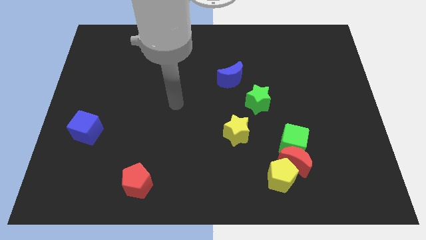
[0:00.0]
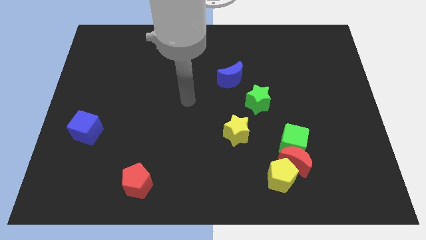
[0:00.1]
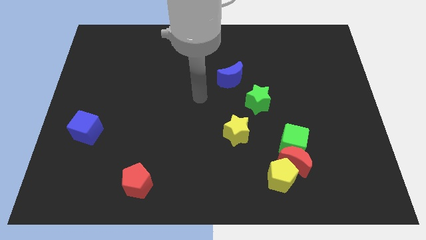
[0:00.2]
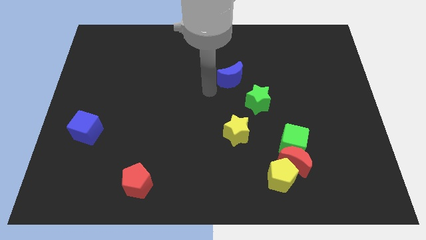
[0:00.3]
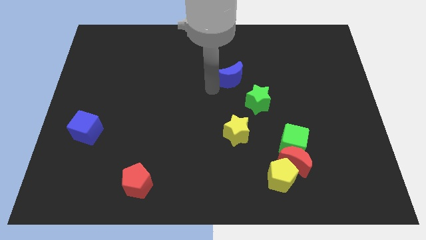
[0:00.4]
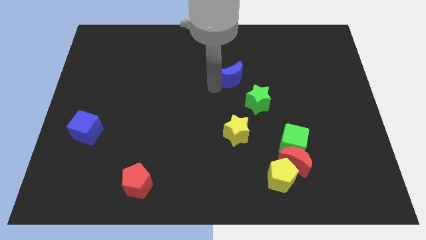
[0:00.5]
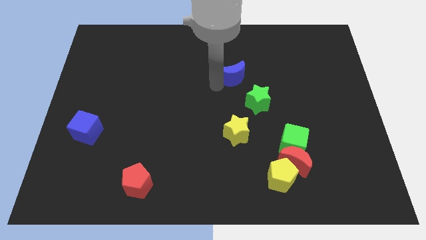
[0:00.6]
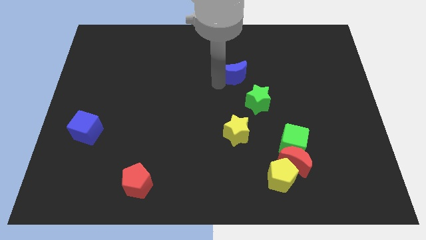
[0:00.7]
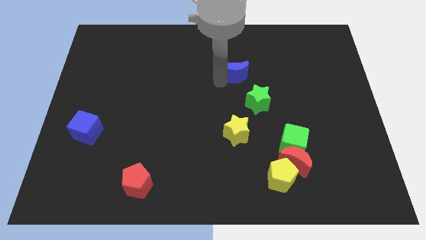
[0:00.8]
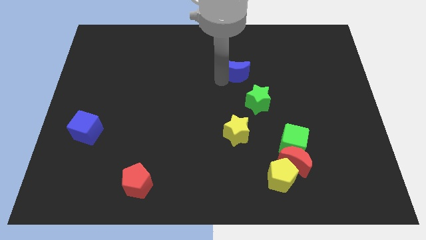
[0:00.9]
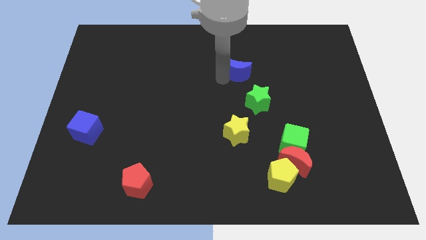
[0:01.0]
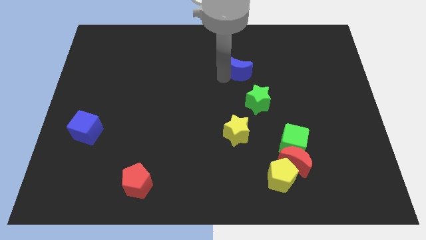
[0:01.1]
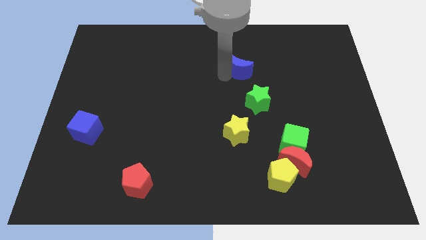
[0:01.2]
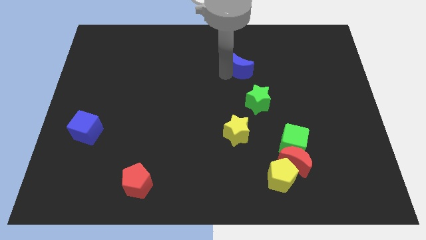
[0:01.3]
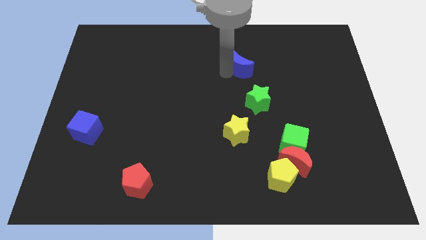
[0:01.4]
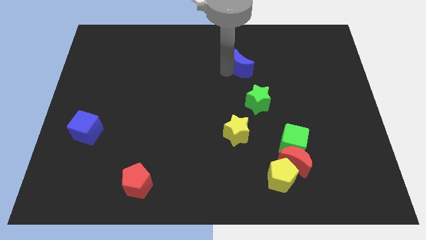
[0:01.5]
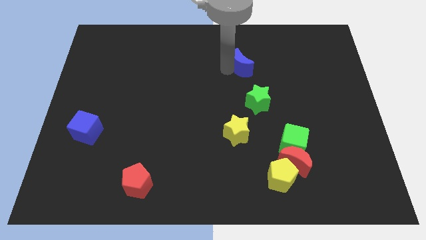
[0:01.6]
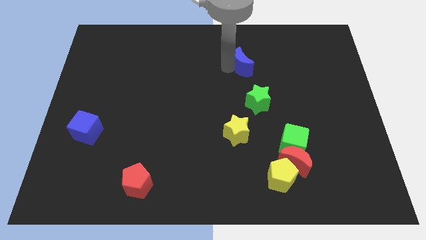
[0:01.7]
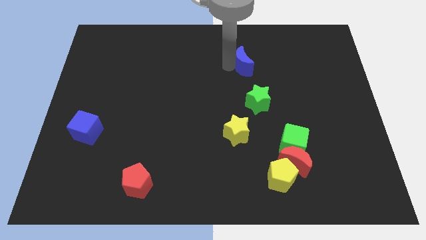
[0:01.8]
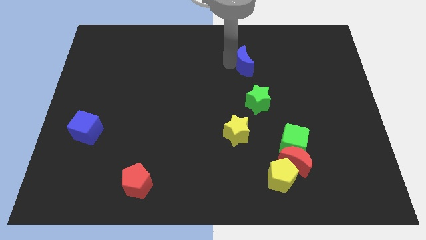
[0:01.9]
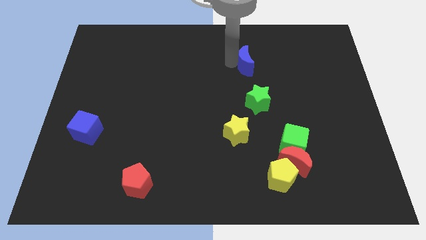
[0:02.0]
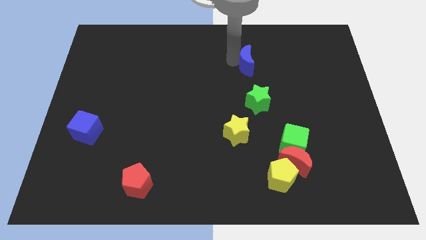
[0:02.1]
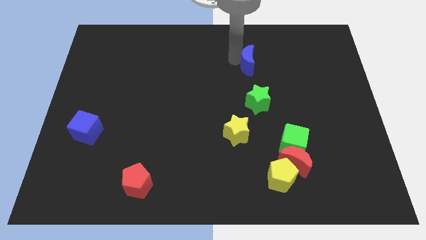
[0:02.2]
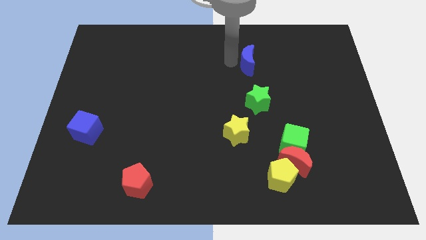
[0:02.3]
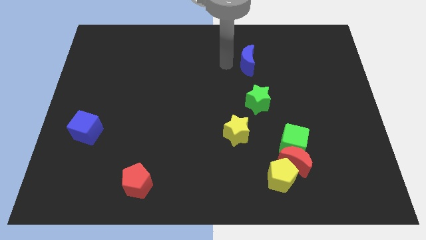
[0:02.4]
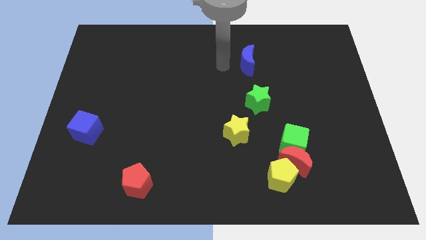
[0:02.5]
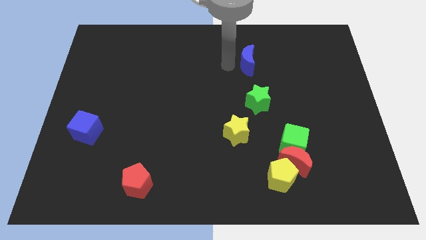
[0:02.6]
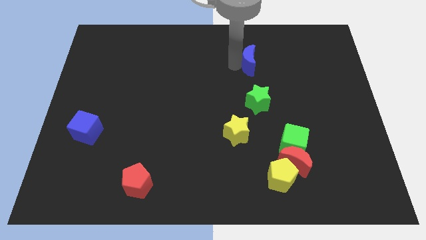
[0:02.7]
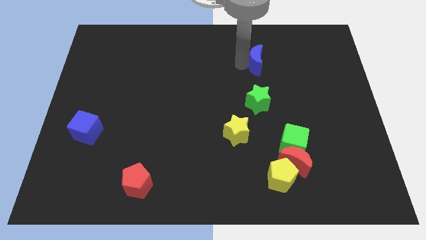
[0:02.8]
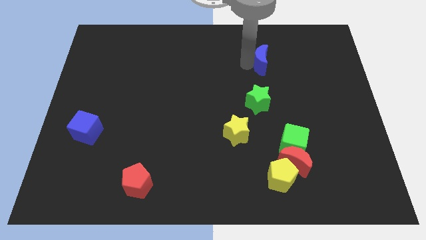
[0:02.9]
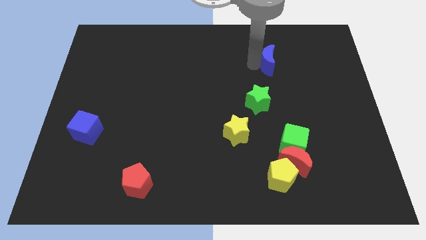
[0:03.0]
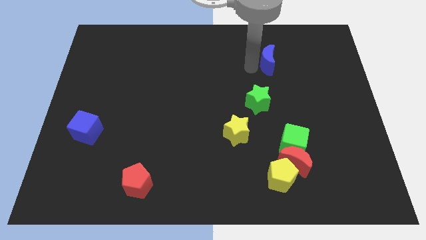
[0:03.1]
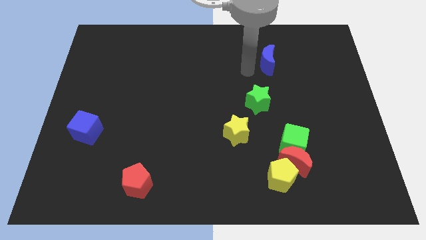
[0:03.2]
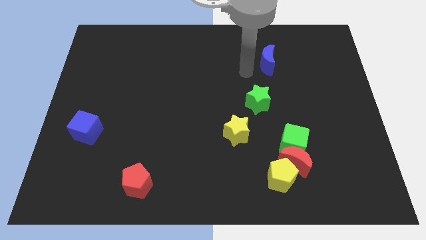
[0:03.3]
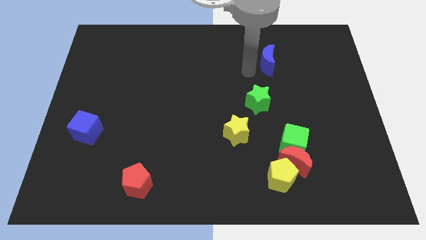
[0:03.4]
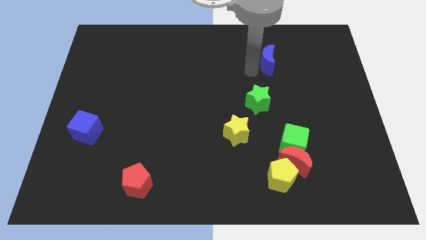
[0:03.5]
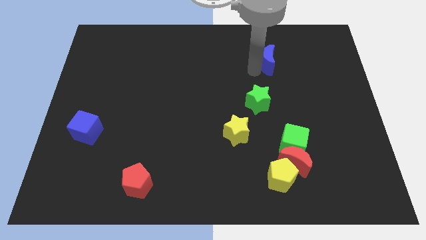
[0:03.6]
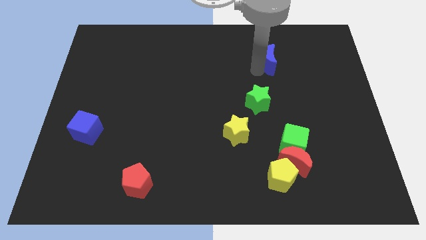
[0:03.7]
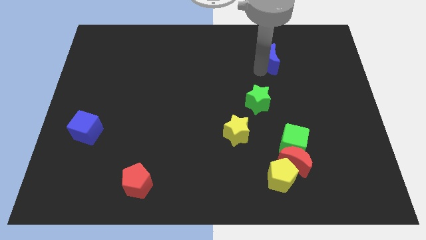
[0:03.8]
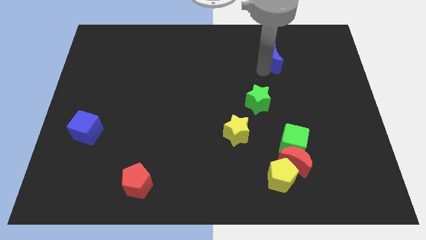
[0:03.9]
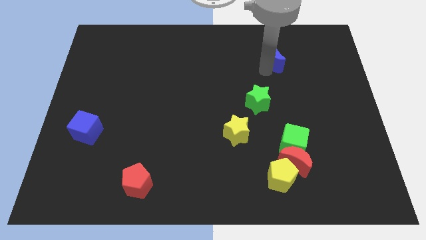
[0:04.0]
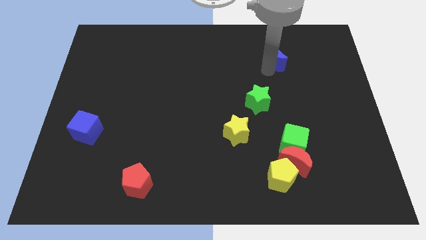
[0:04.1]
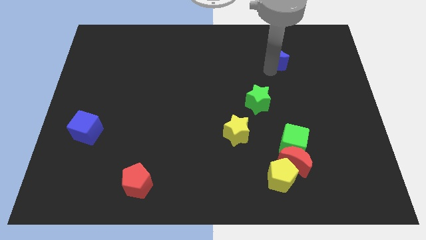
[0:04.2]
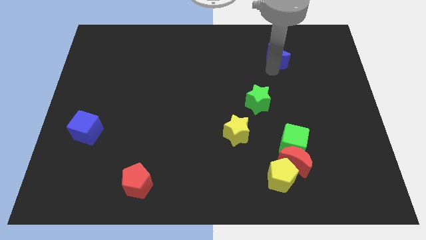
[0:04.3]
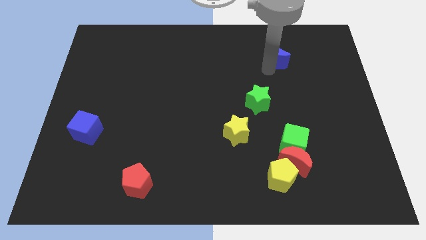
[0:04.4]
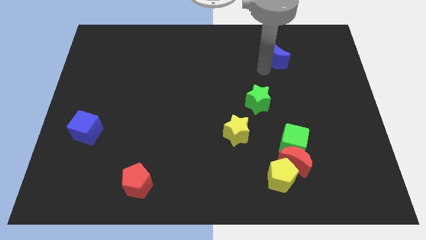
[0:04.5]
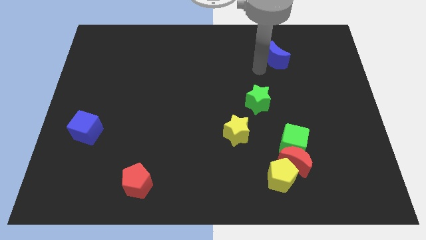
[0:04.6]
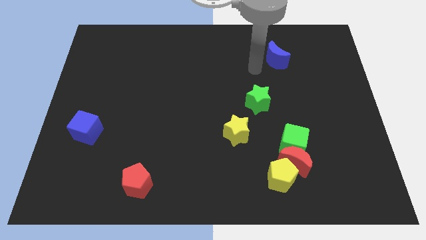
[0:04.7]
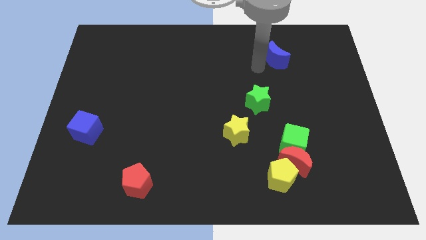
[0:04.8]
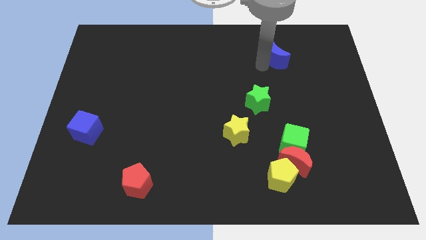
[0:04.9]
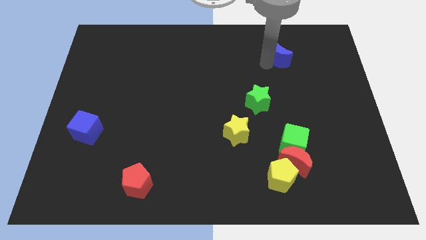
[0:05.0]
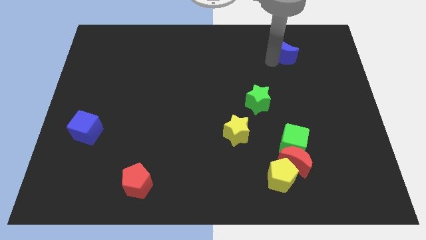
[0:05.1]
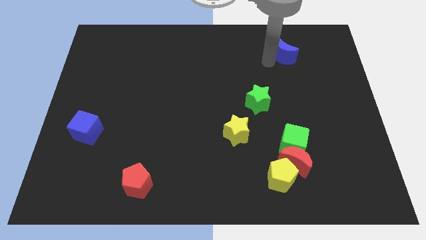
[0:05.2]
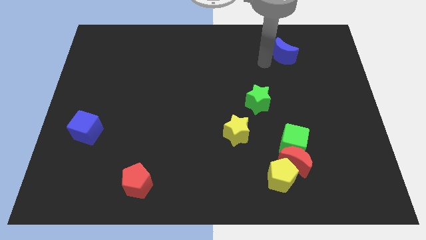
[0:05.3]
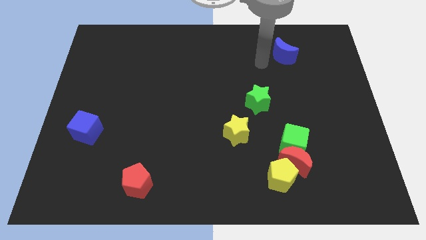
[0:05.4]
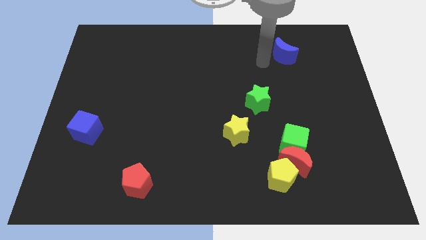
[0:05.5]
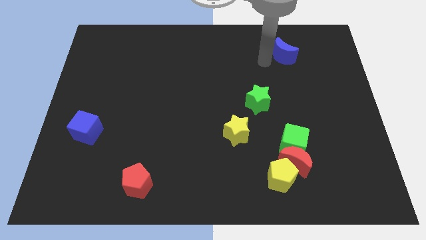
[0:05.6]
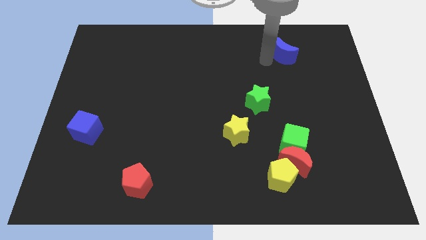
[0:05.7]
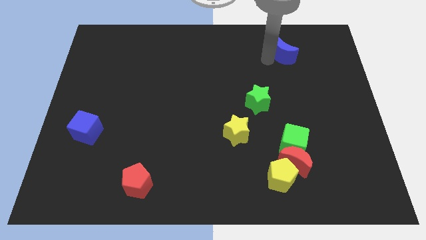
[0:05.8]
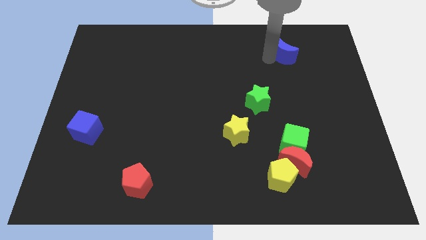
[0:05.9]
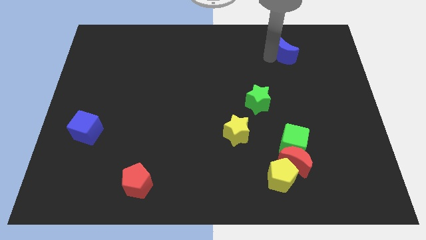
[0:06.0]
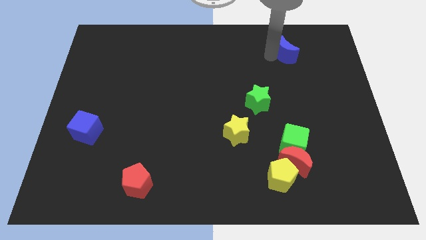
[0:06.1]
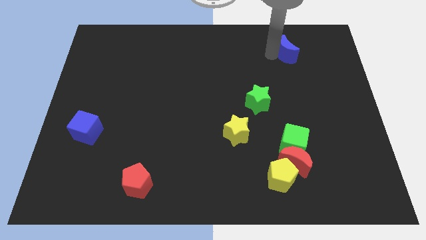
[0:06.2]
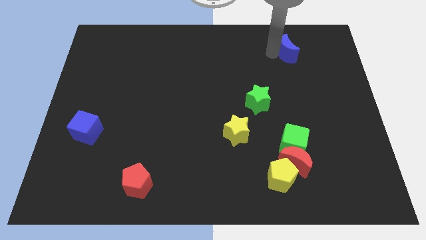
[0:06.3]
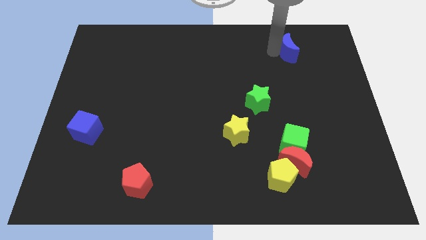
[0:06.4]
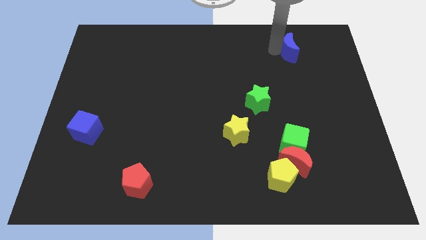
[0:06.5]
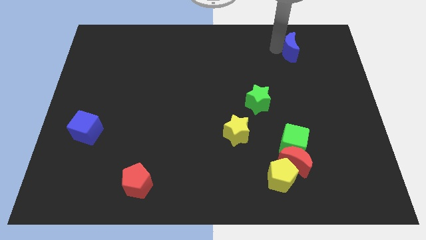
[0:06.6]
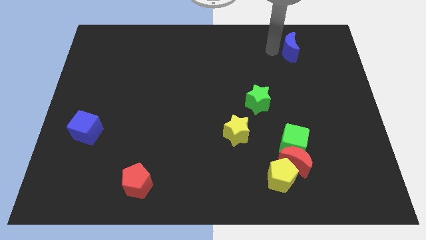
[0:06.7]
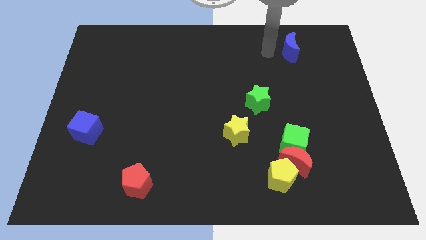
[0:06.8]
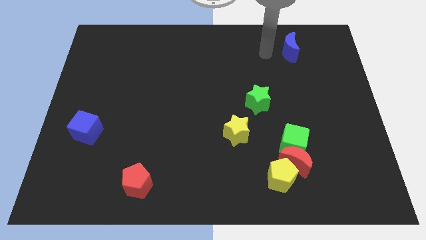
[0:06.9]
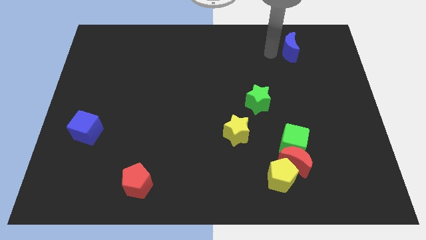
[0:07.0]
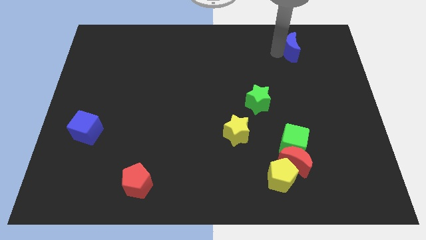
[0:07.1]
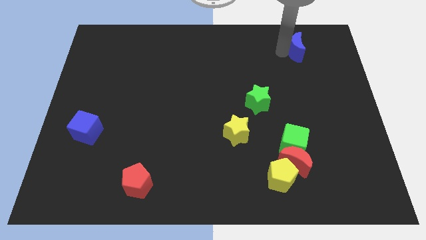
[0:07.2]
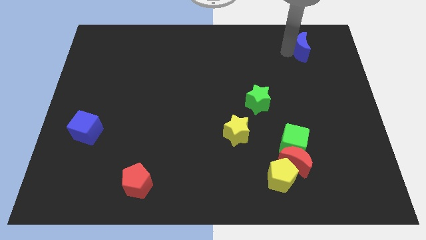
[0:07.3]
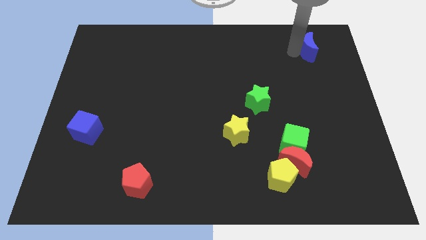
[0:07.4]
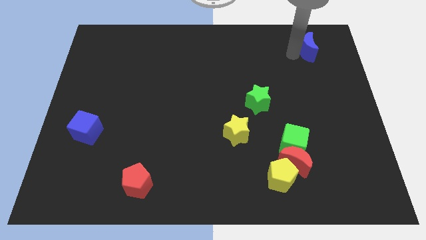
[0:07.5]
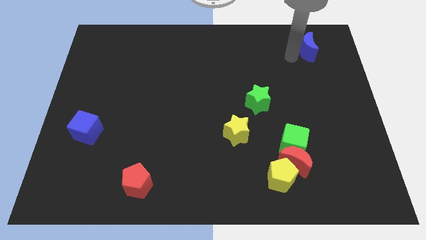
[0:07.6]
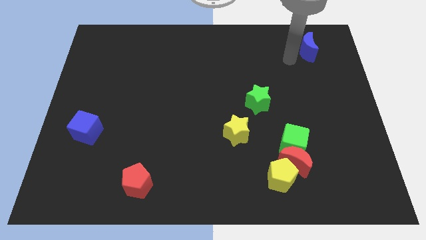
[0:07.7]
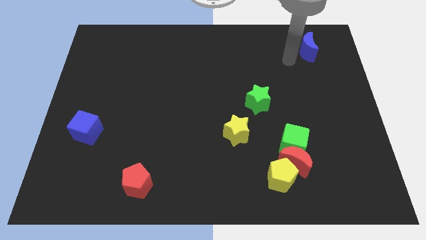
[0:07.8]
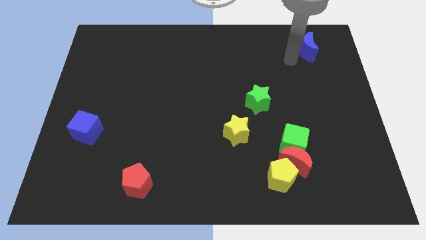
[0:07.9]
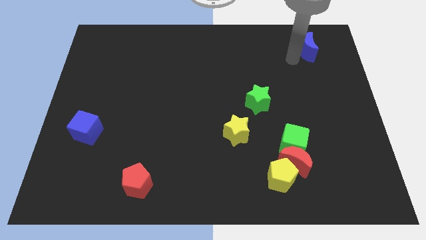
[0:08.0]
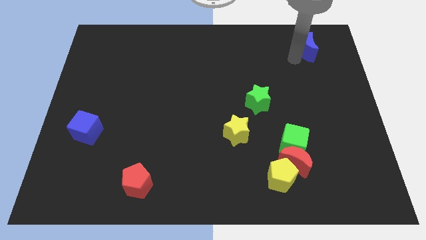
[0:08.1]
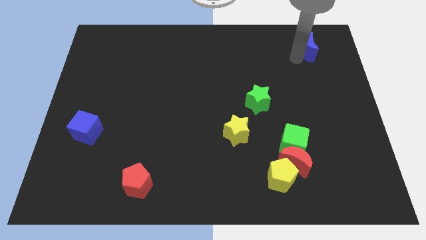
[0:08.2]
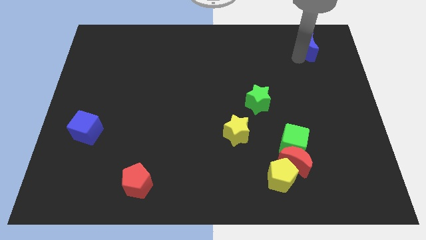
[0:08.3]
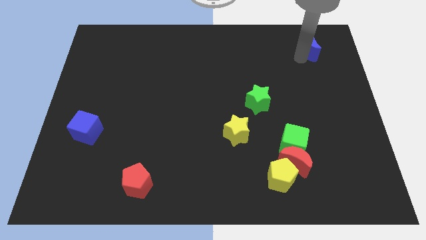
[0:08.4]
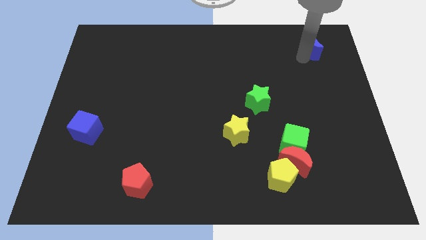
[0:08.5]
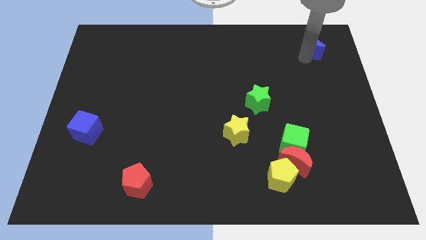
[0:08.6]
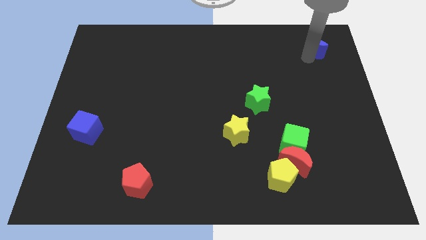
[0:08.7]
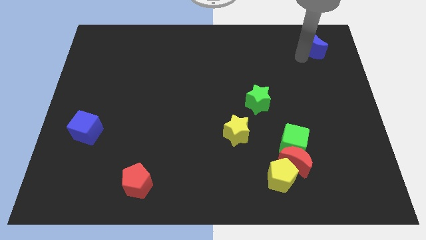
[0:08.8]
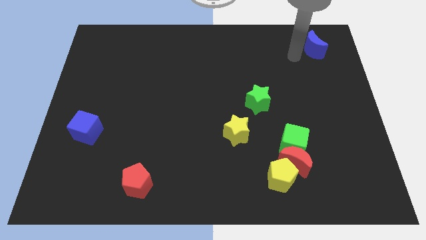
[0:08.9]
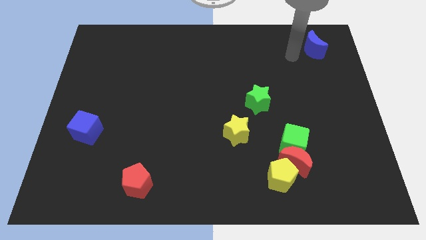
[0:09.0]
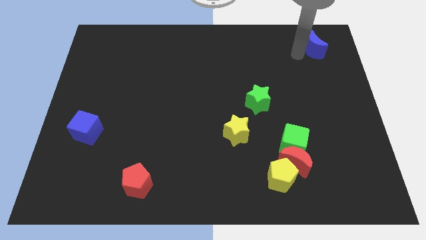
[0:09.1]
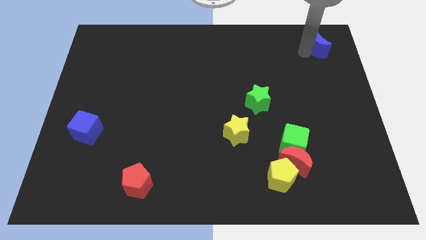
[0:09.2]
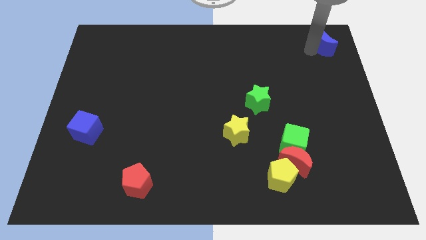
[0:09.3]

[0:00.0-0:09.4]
move the blue moon to the upper right corner
